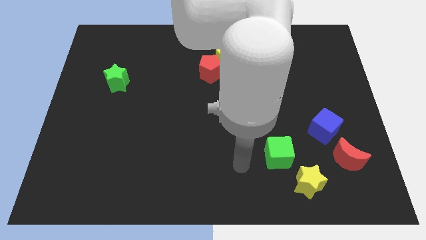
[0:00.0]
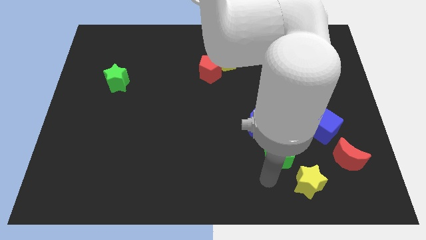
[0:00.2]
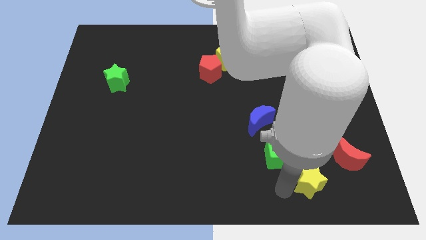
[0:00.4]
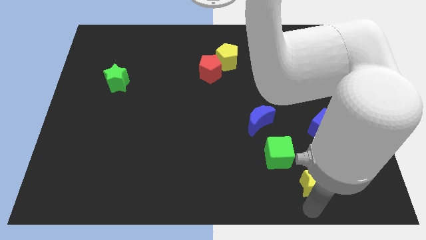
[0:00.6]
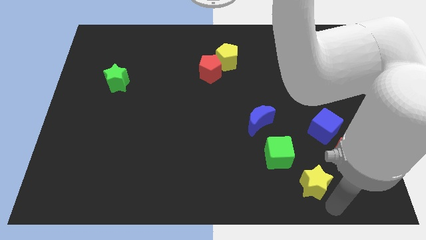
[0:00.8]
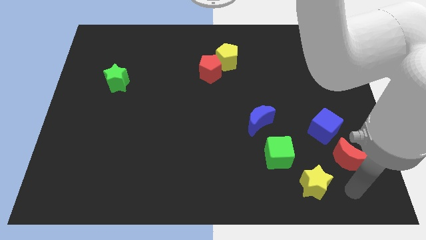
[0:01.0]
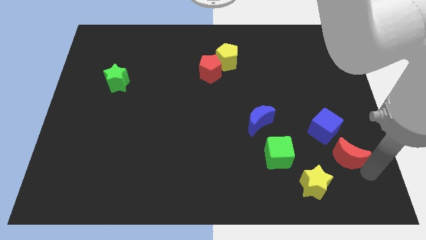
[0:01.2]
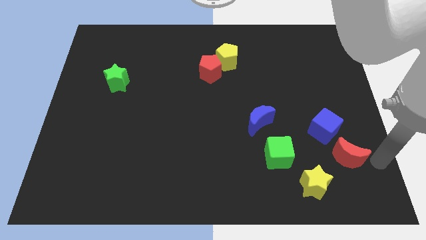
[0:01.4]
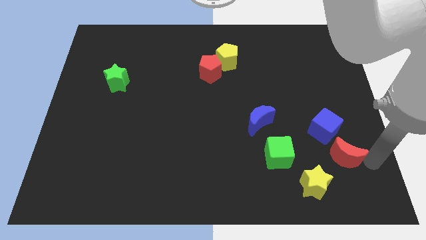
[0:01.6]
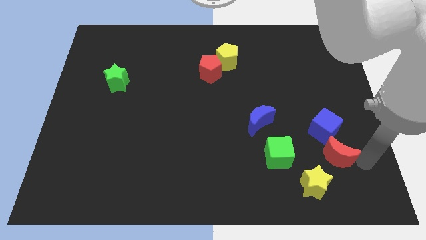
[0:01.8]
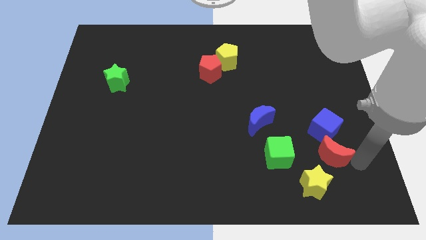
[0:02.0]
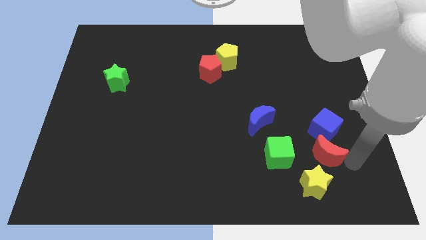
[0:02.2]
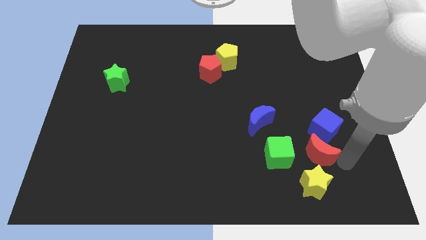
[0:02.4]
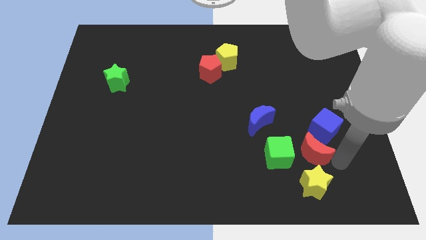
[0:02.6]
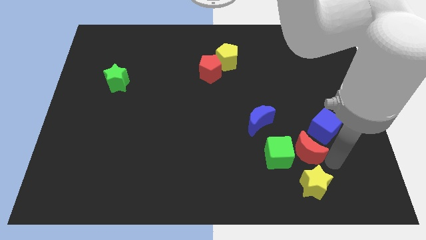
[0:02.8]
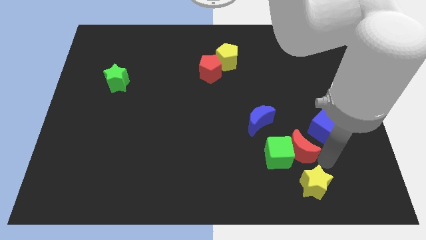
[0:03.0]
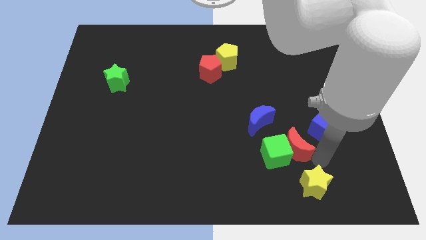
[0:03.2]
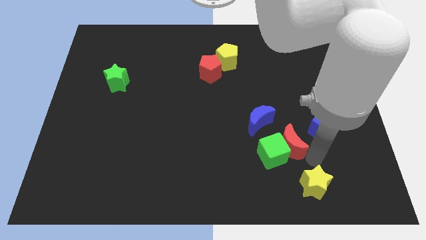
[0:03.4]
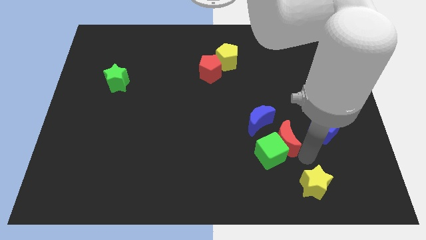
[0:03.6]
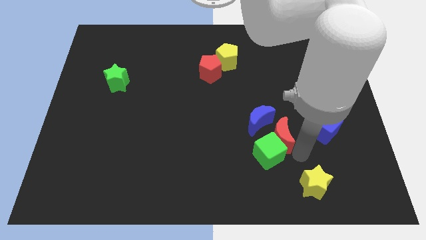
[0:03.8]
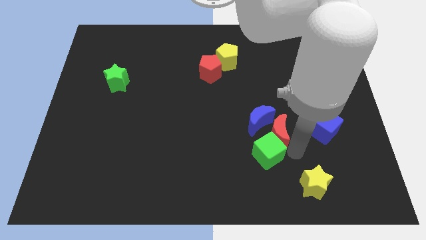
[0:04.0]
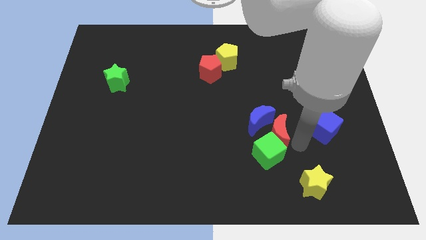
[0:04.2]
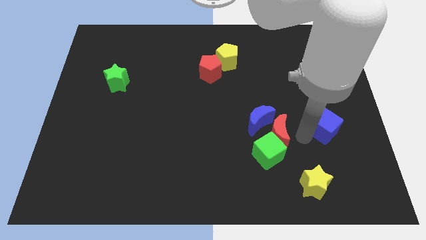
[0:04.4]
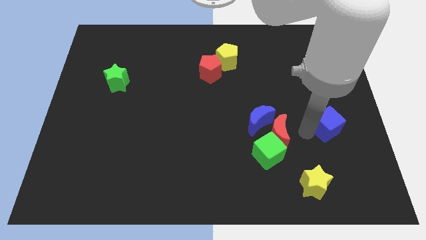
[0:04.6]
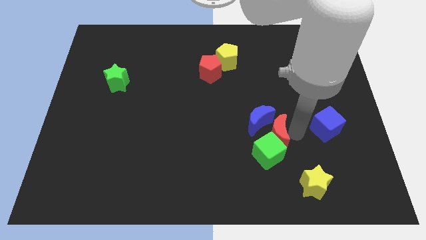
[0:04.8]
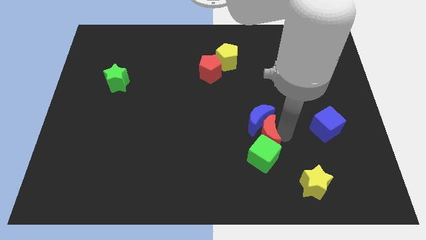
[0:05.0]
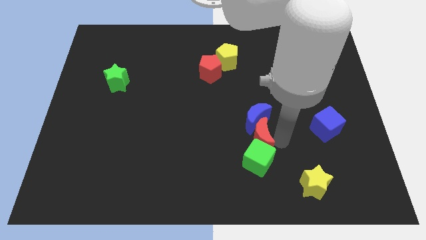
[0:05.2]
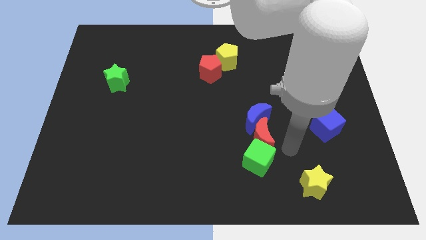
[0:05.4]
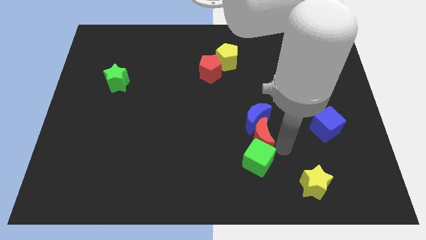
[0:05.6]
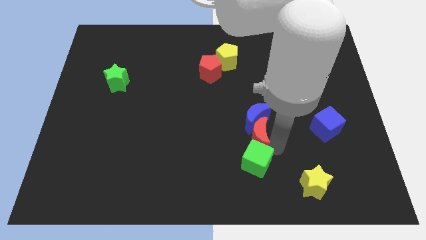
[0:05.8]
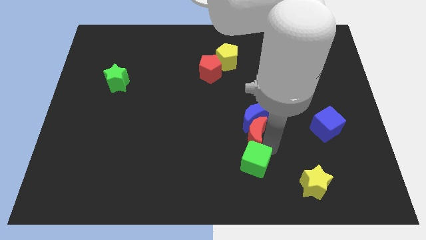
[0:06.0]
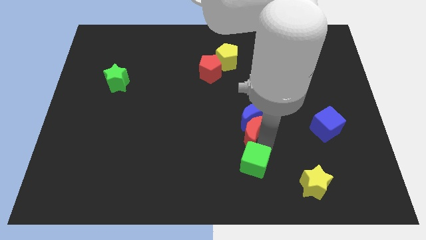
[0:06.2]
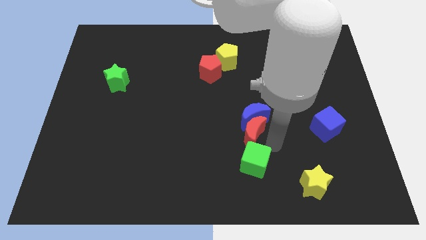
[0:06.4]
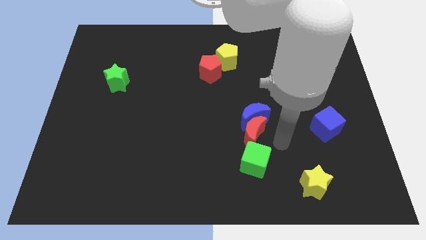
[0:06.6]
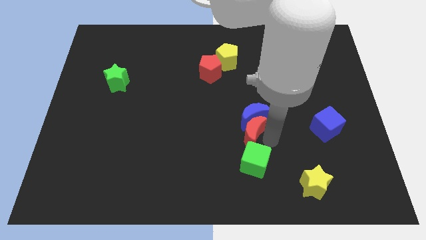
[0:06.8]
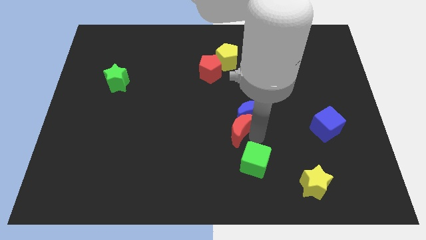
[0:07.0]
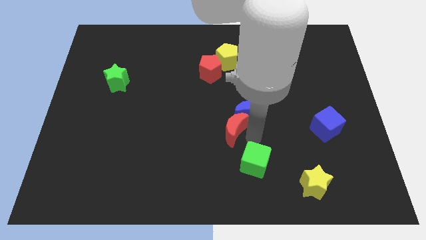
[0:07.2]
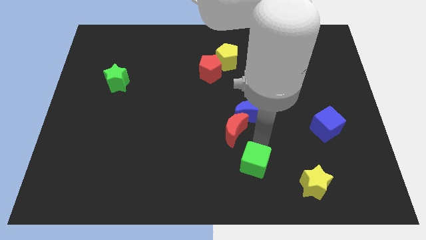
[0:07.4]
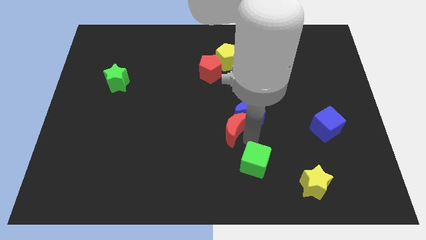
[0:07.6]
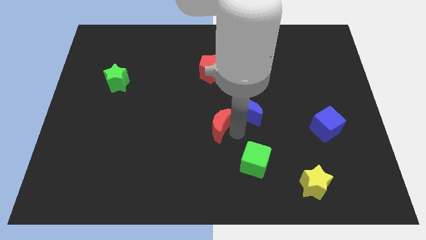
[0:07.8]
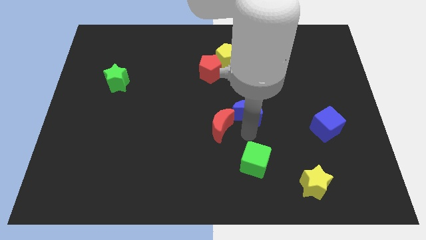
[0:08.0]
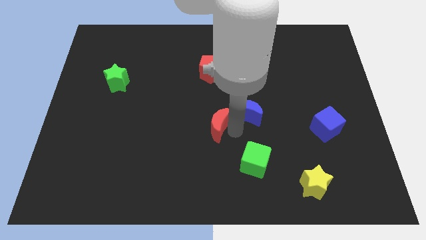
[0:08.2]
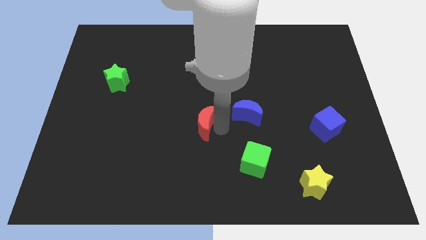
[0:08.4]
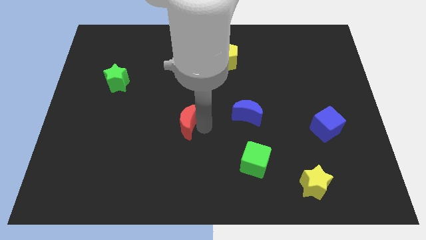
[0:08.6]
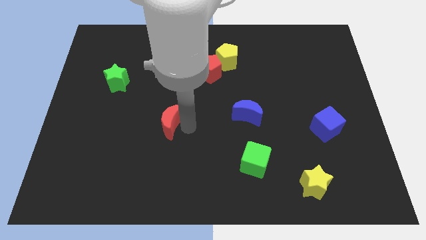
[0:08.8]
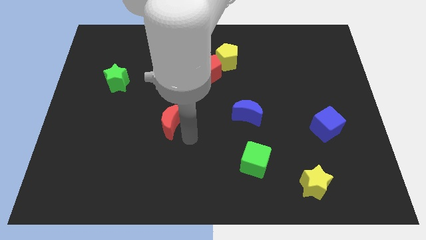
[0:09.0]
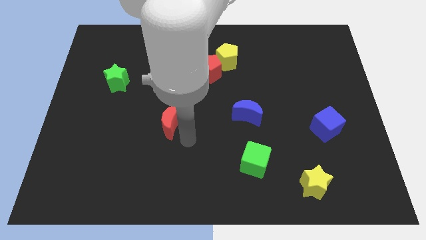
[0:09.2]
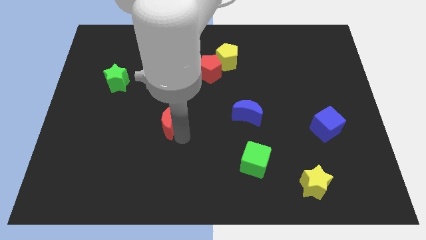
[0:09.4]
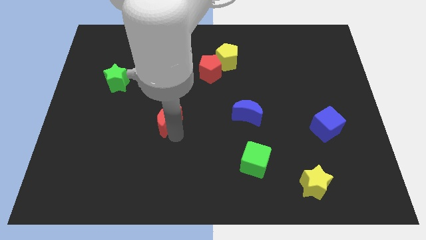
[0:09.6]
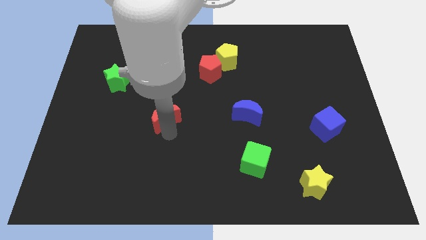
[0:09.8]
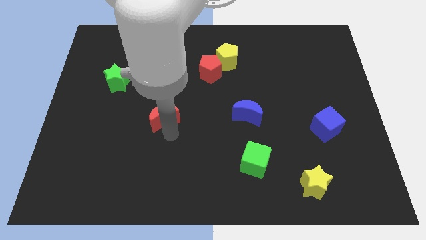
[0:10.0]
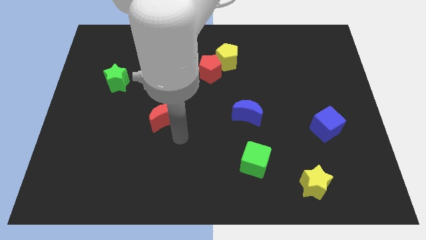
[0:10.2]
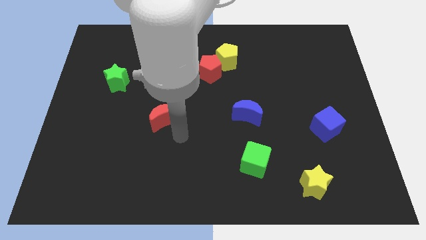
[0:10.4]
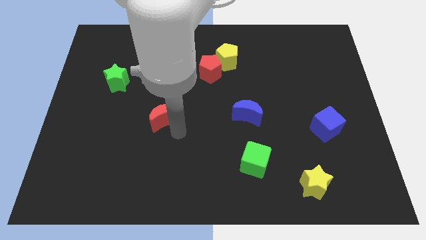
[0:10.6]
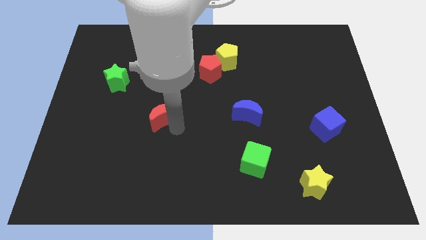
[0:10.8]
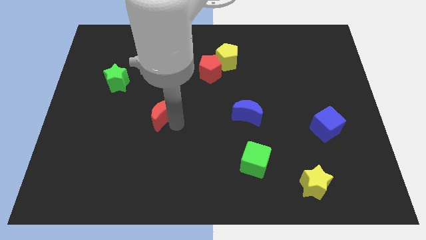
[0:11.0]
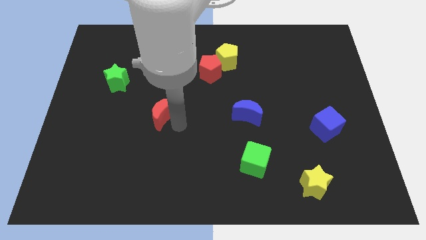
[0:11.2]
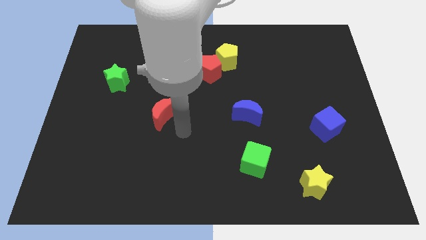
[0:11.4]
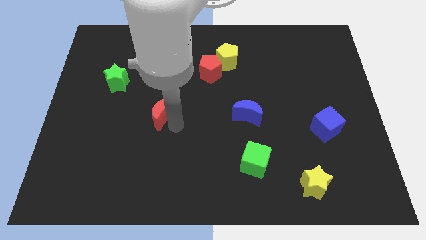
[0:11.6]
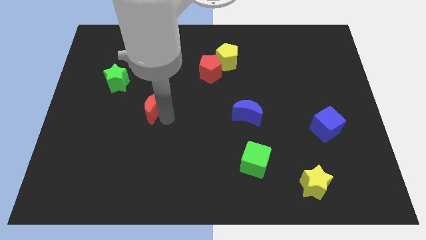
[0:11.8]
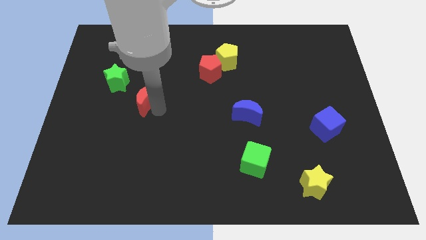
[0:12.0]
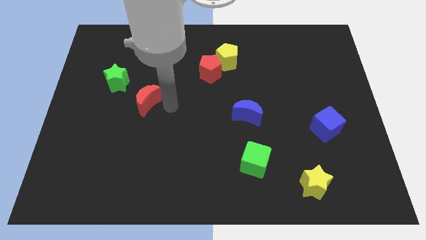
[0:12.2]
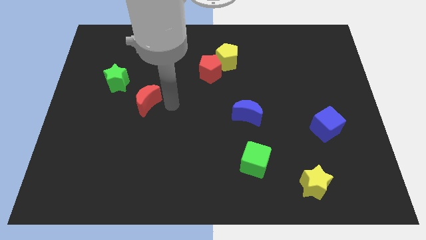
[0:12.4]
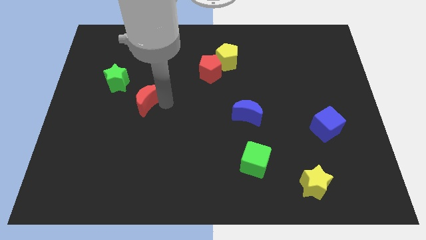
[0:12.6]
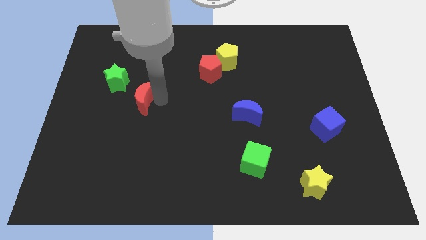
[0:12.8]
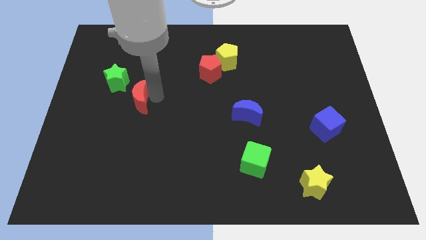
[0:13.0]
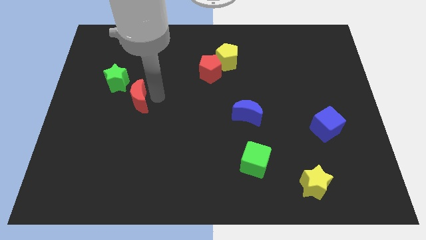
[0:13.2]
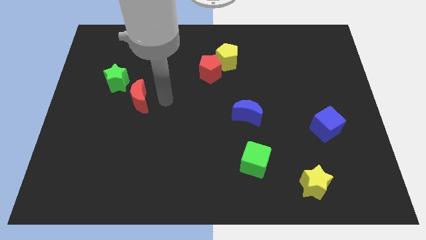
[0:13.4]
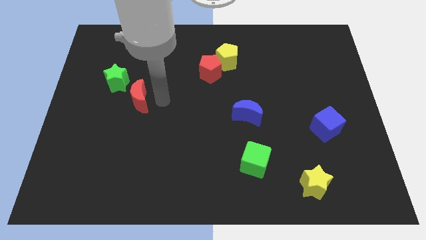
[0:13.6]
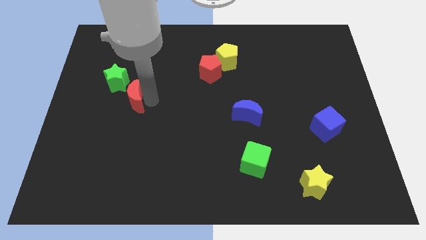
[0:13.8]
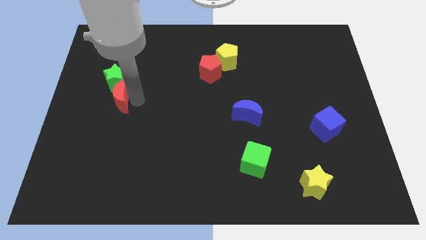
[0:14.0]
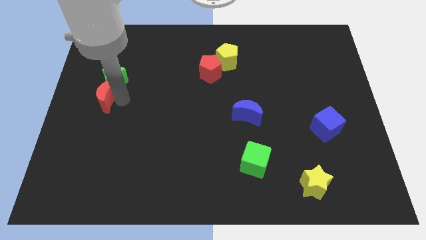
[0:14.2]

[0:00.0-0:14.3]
put the red moon to the left side
